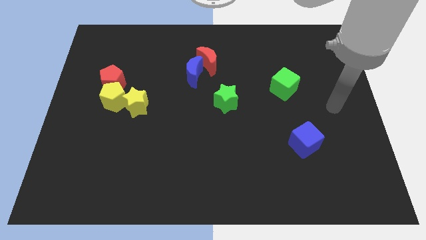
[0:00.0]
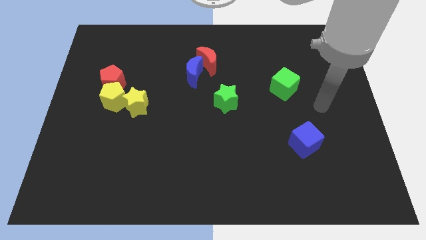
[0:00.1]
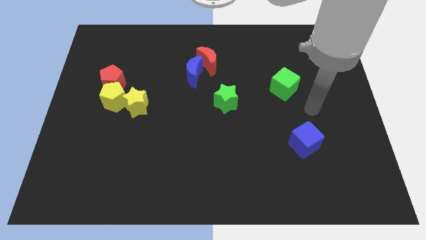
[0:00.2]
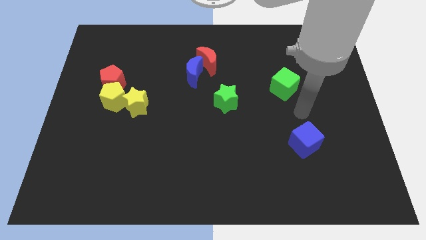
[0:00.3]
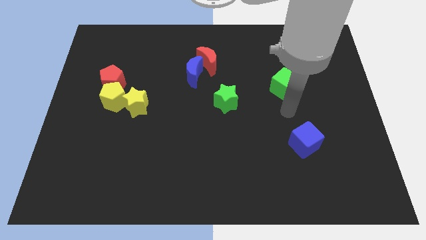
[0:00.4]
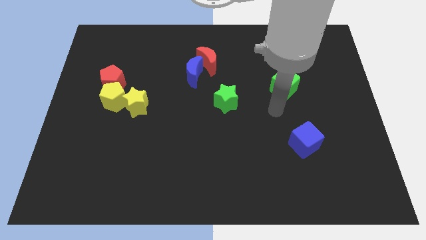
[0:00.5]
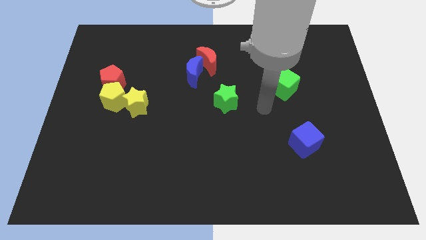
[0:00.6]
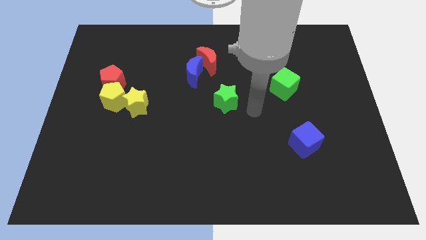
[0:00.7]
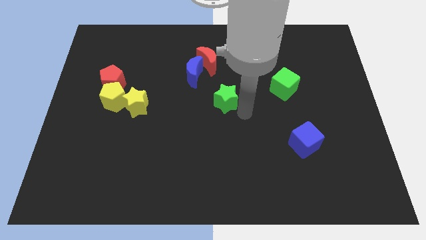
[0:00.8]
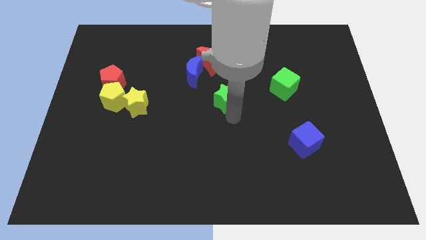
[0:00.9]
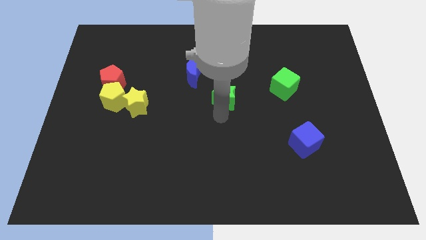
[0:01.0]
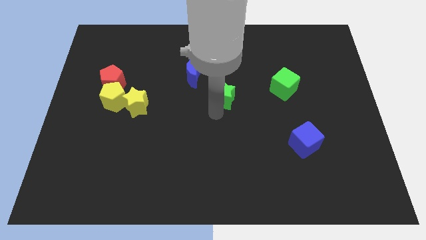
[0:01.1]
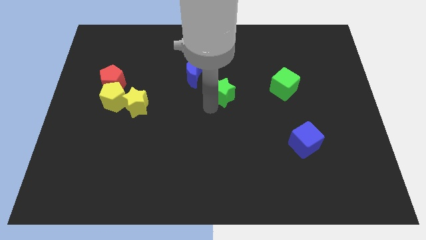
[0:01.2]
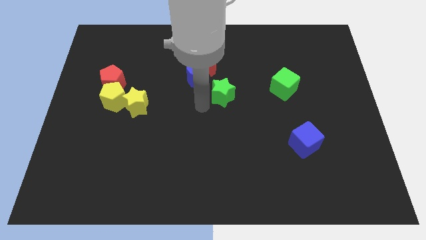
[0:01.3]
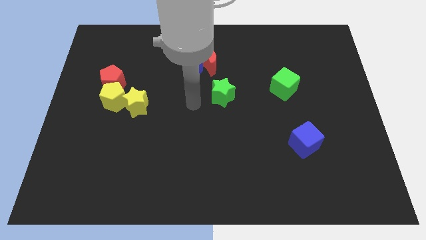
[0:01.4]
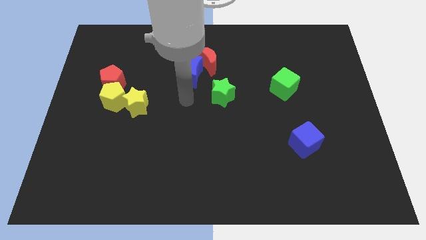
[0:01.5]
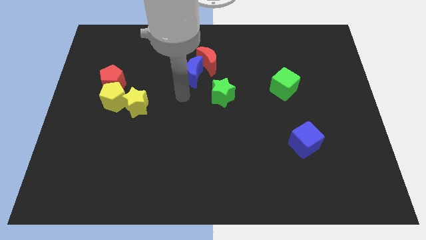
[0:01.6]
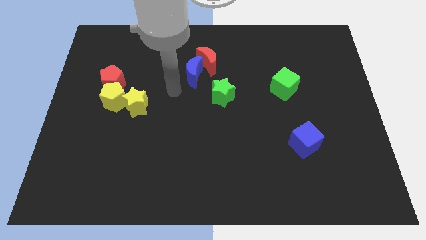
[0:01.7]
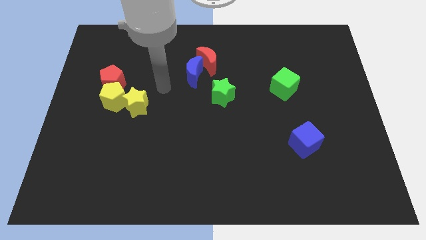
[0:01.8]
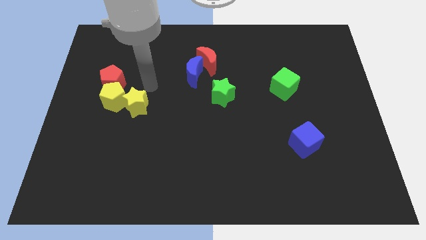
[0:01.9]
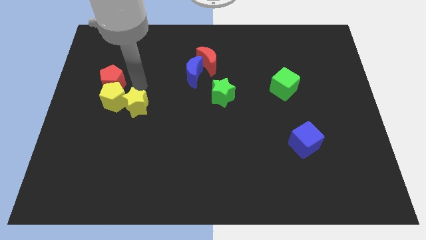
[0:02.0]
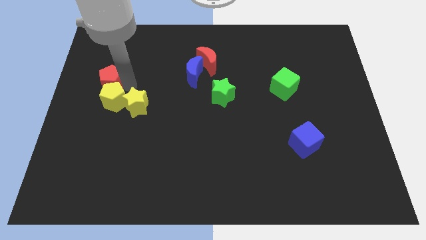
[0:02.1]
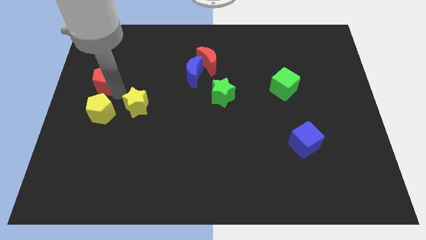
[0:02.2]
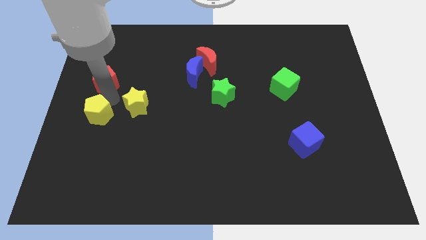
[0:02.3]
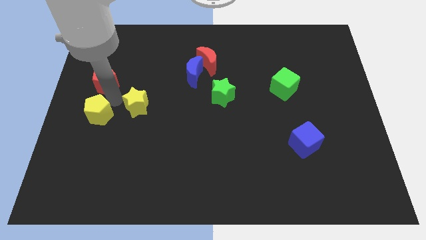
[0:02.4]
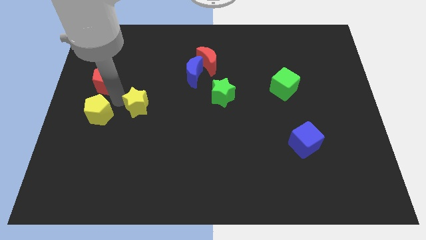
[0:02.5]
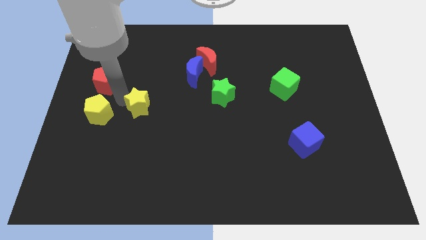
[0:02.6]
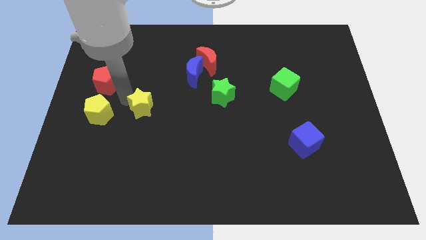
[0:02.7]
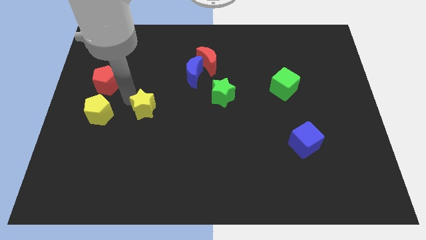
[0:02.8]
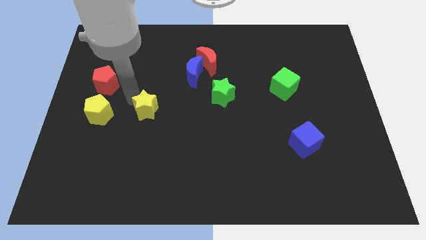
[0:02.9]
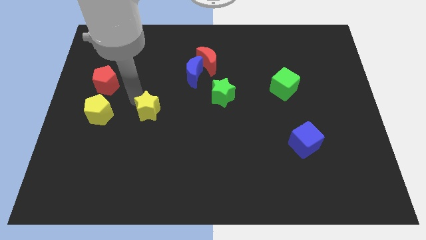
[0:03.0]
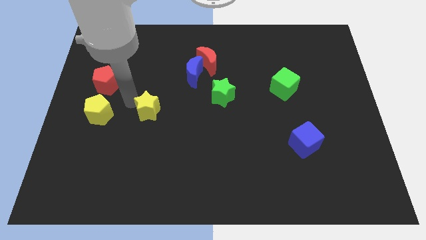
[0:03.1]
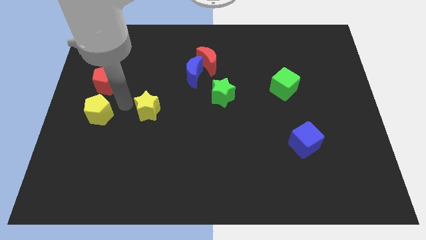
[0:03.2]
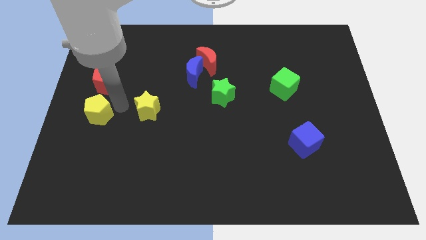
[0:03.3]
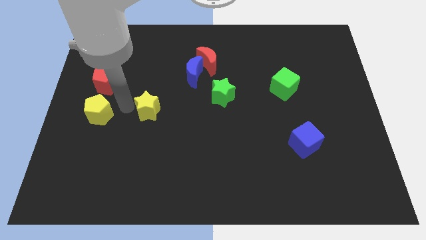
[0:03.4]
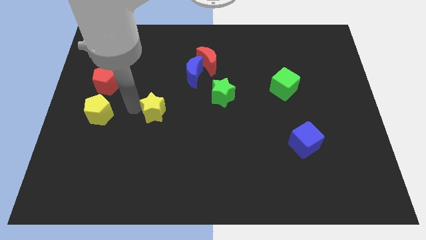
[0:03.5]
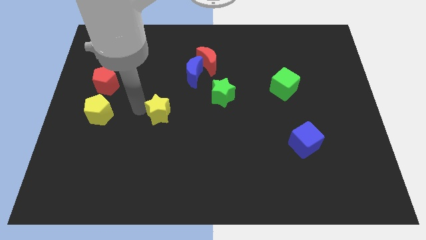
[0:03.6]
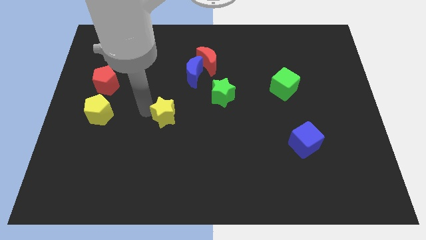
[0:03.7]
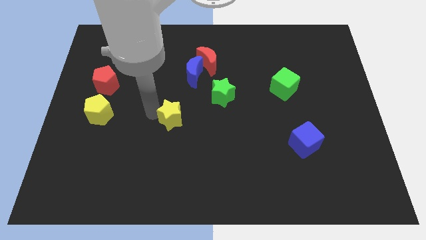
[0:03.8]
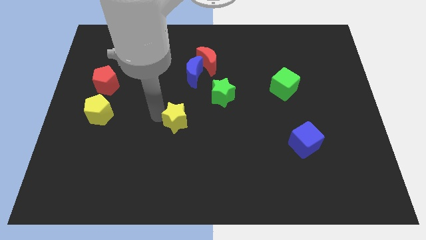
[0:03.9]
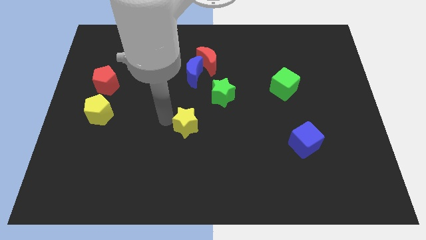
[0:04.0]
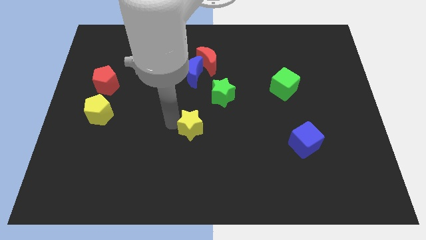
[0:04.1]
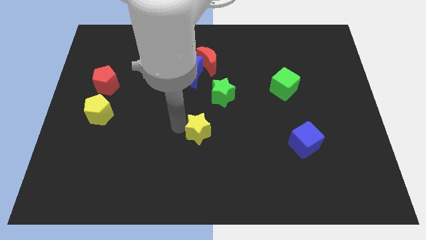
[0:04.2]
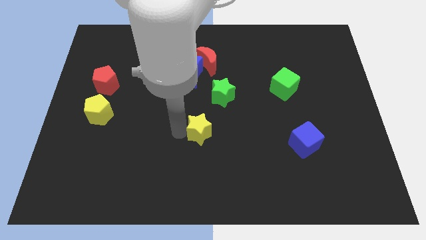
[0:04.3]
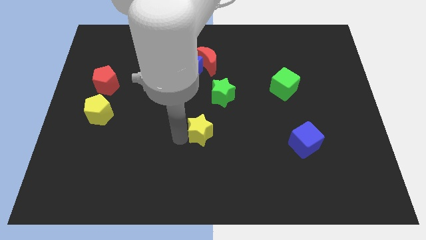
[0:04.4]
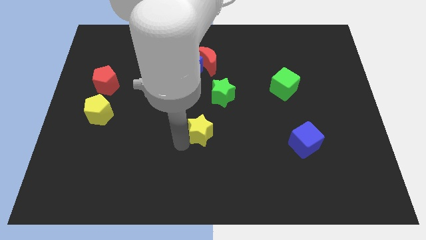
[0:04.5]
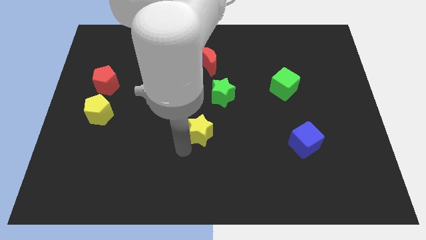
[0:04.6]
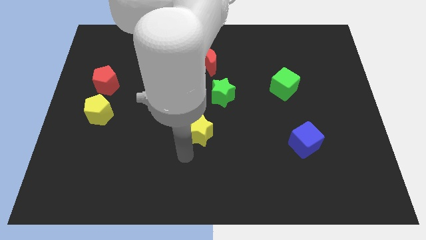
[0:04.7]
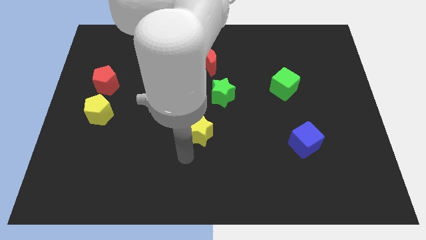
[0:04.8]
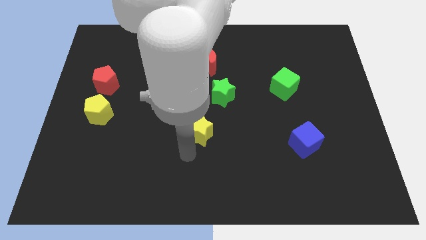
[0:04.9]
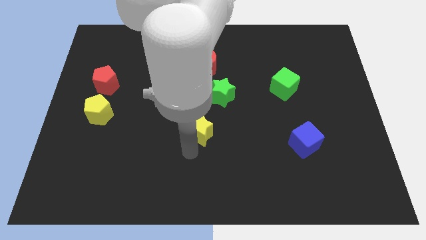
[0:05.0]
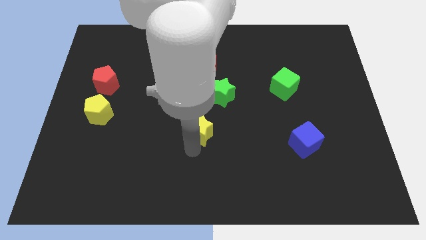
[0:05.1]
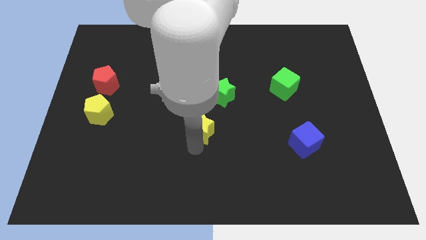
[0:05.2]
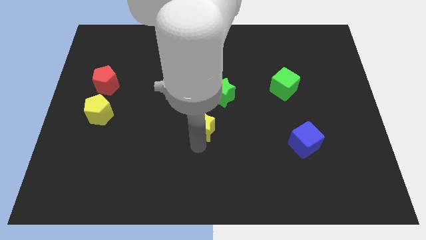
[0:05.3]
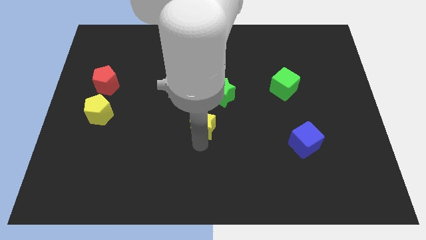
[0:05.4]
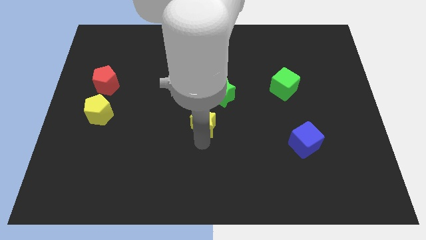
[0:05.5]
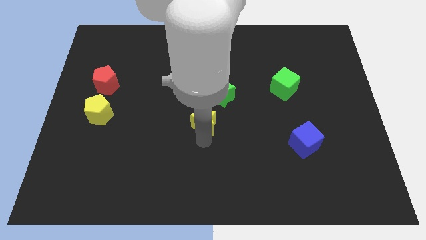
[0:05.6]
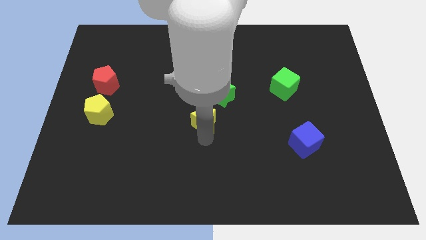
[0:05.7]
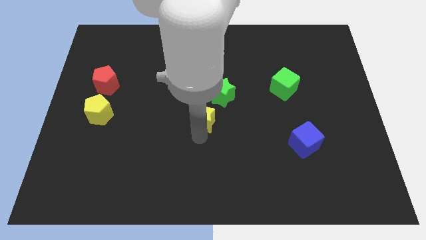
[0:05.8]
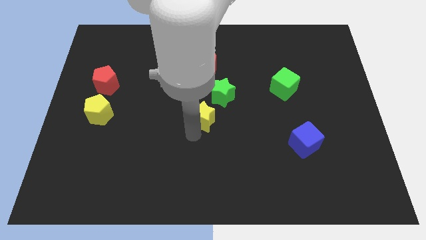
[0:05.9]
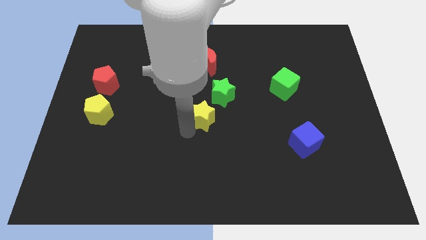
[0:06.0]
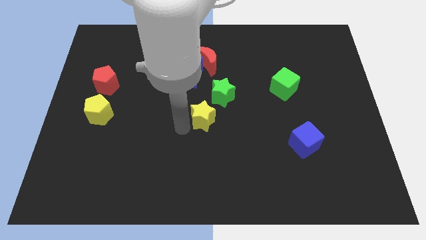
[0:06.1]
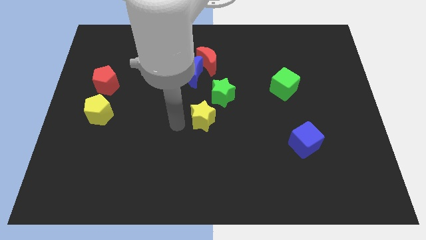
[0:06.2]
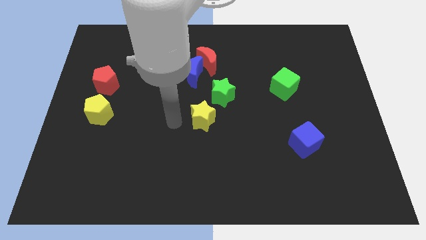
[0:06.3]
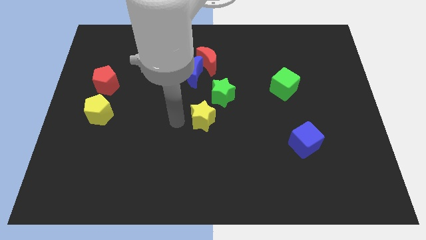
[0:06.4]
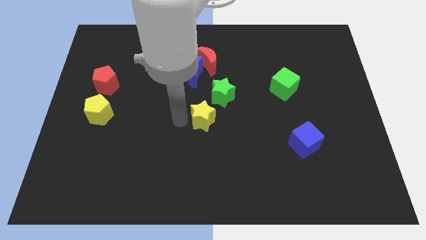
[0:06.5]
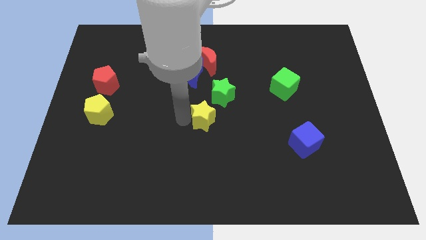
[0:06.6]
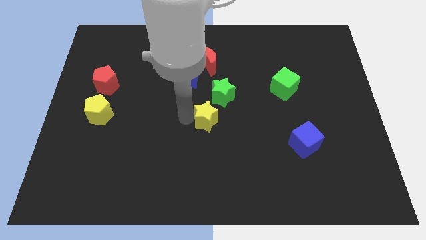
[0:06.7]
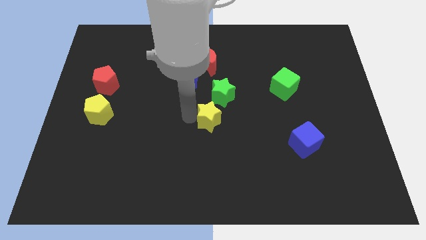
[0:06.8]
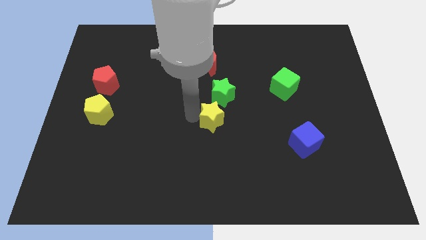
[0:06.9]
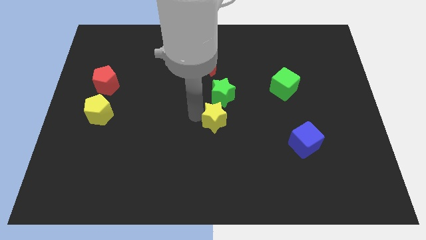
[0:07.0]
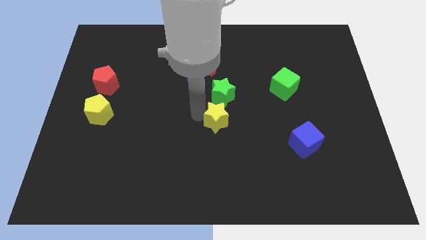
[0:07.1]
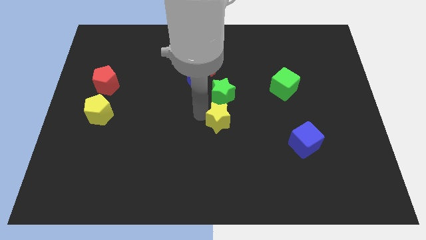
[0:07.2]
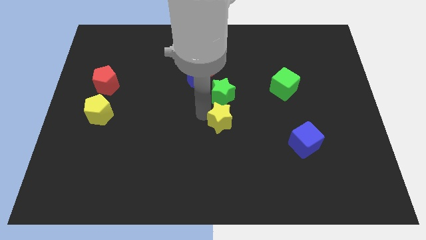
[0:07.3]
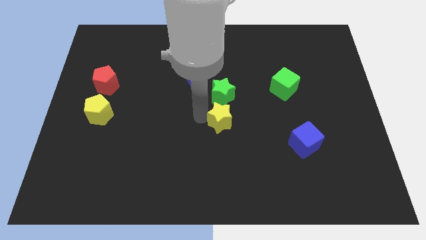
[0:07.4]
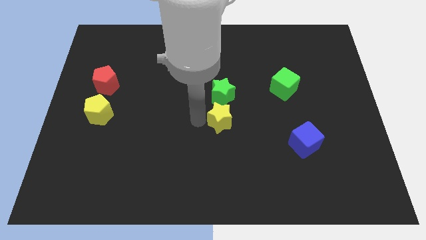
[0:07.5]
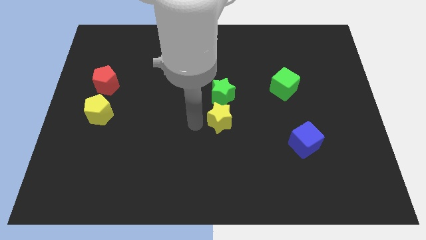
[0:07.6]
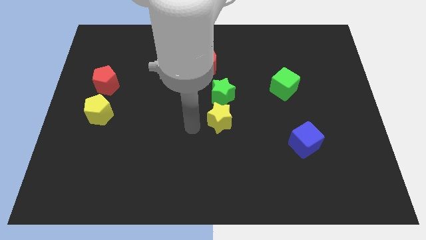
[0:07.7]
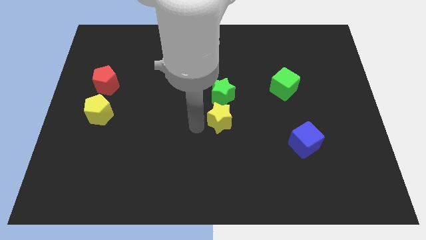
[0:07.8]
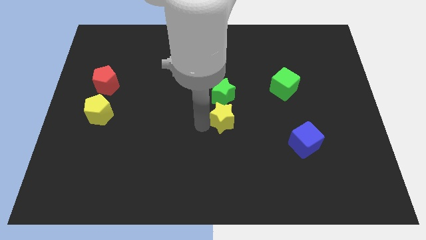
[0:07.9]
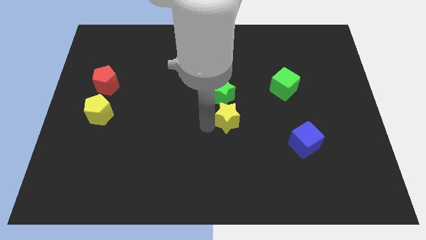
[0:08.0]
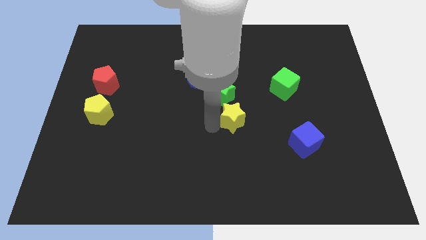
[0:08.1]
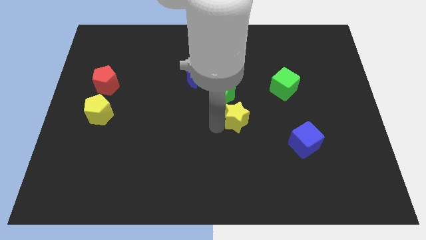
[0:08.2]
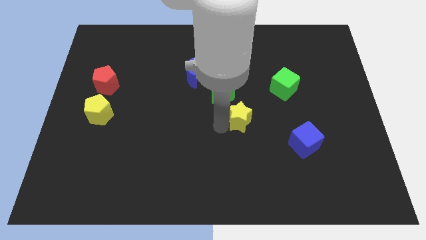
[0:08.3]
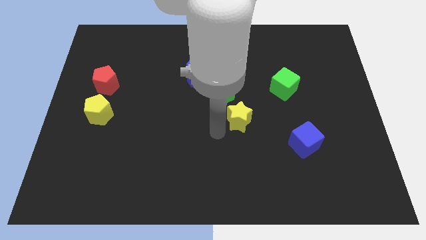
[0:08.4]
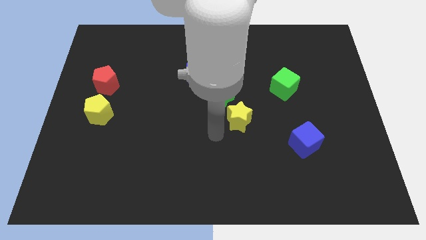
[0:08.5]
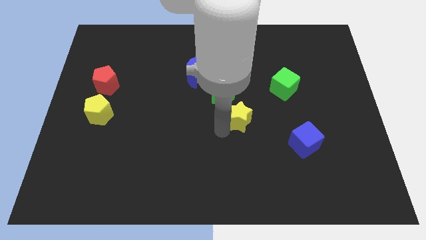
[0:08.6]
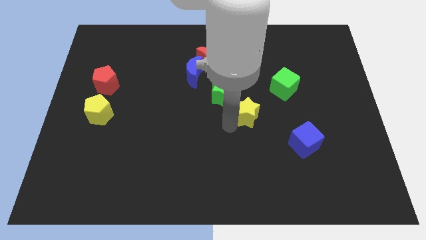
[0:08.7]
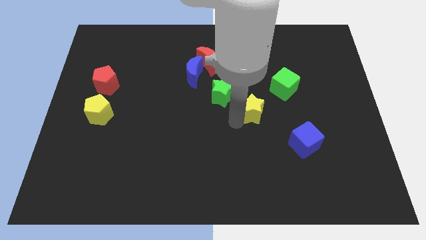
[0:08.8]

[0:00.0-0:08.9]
slide the yellow star to the bottom left side of the green cube
